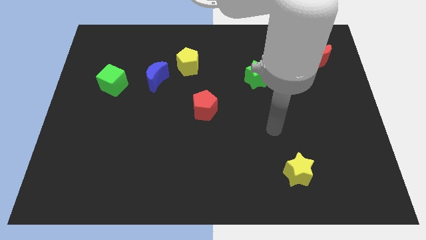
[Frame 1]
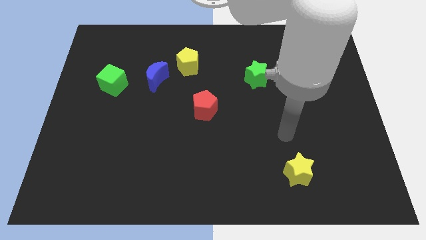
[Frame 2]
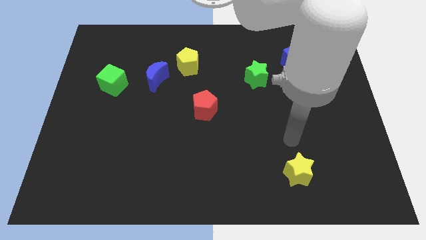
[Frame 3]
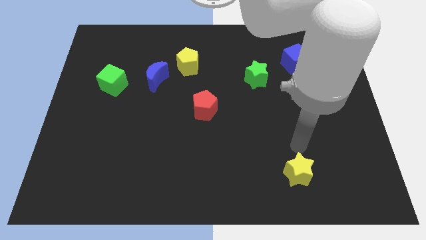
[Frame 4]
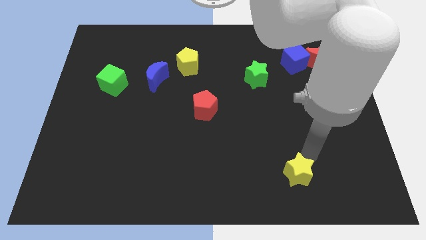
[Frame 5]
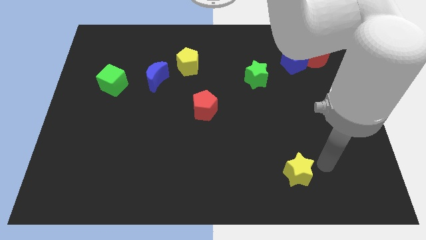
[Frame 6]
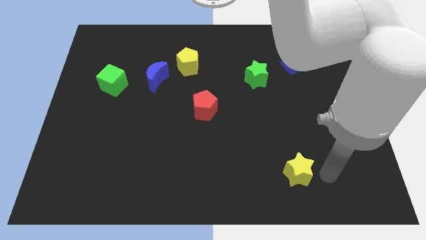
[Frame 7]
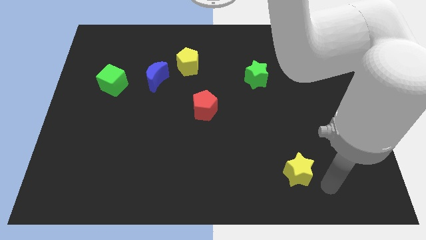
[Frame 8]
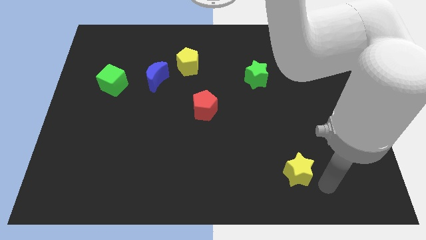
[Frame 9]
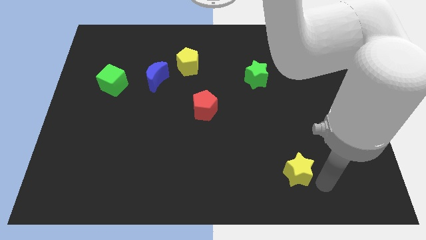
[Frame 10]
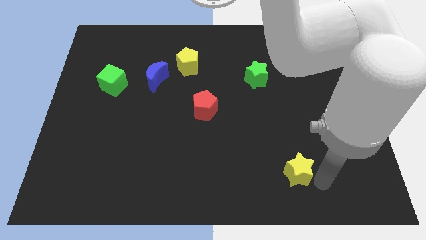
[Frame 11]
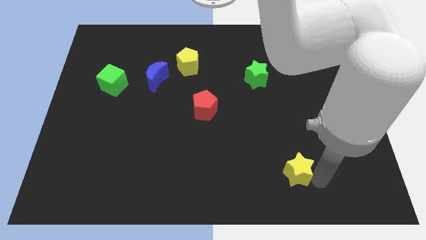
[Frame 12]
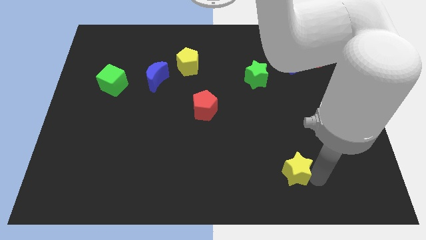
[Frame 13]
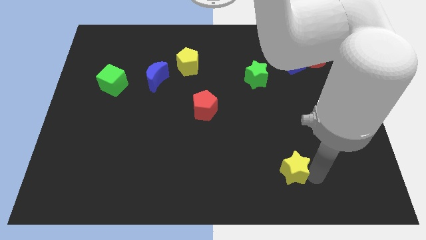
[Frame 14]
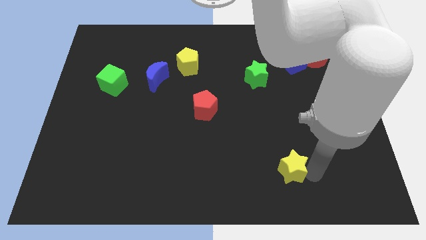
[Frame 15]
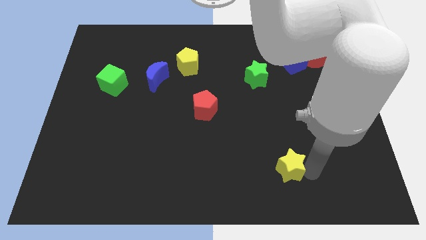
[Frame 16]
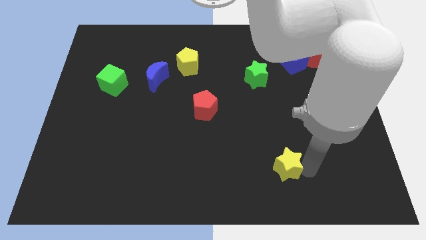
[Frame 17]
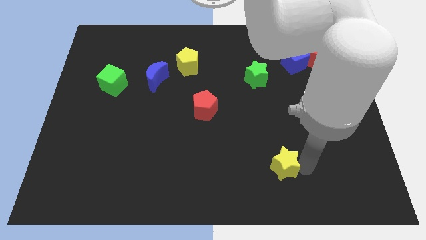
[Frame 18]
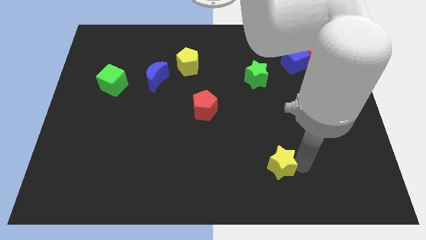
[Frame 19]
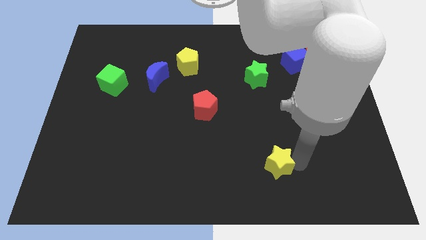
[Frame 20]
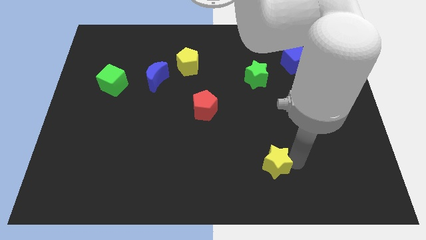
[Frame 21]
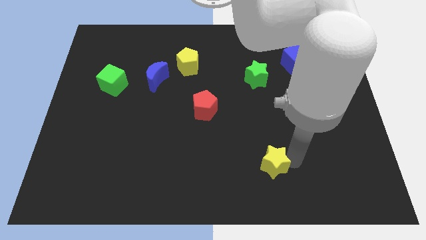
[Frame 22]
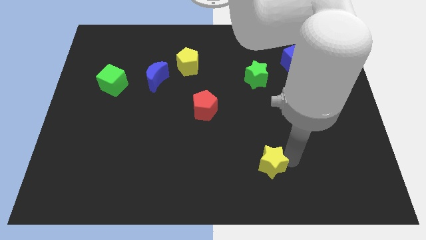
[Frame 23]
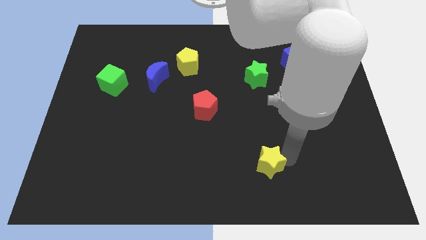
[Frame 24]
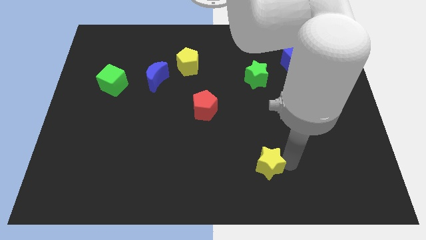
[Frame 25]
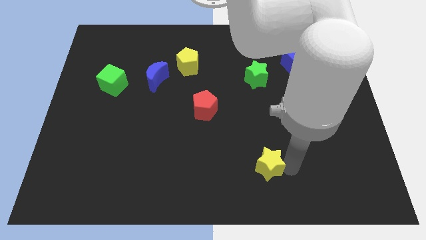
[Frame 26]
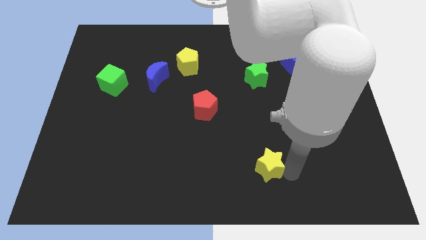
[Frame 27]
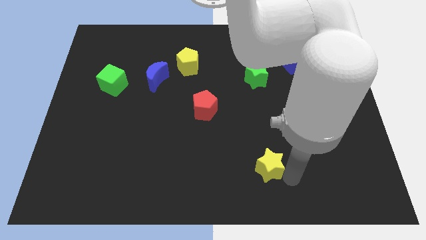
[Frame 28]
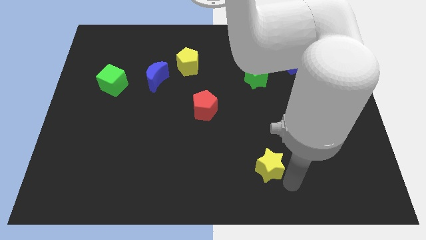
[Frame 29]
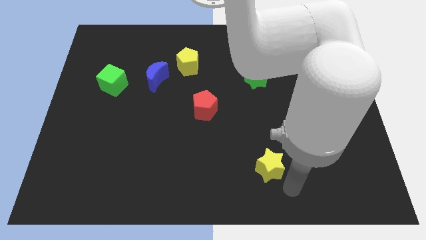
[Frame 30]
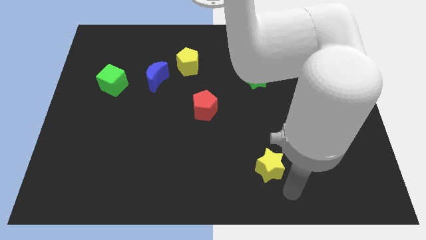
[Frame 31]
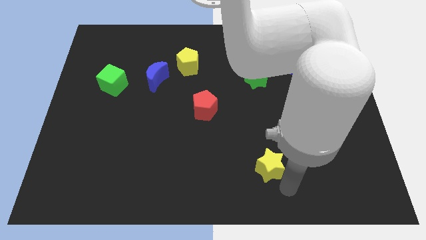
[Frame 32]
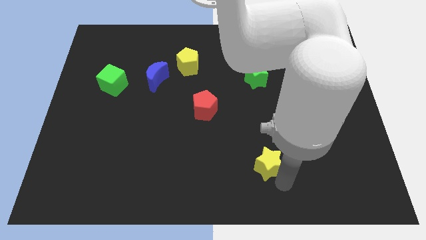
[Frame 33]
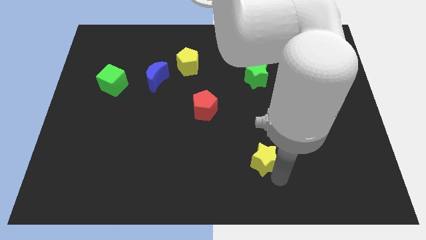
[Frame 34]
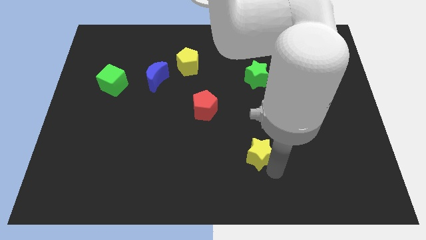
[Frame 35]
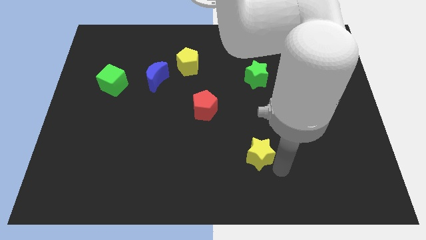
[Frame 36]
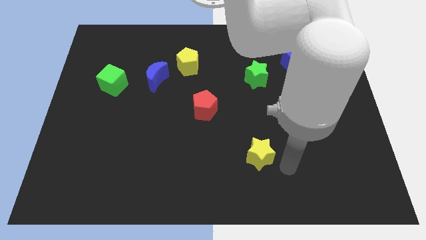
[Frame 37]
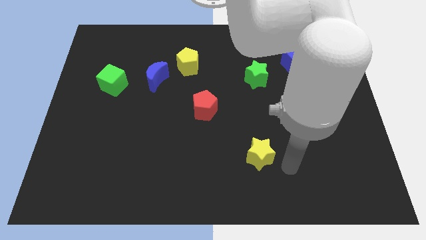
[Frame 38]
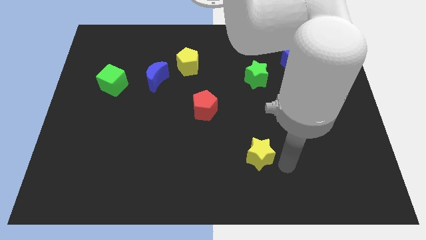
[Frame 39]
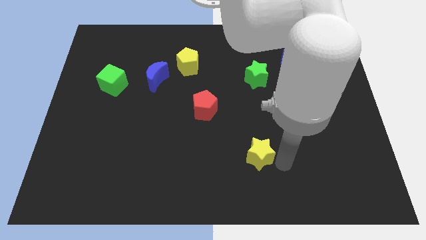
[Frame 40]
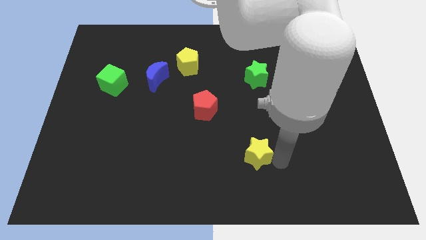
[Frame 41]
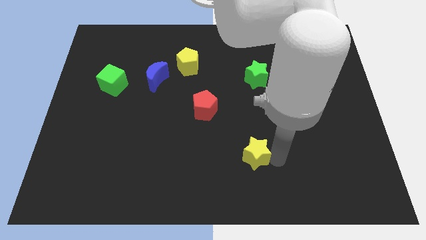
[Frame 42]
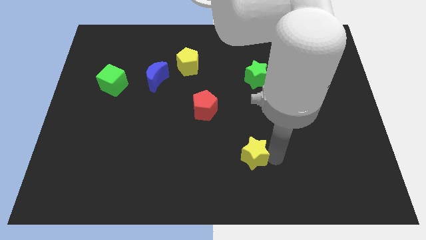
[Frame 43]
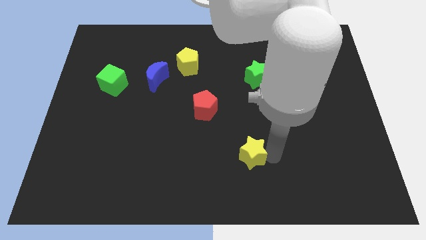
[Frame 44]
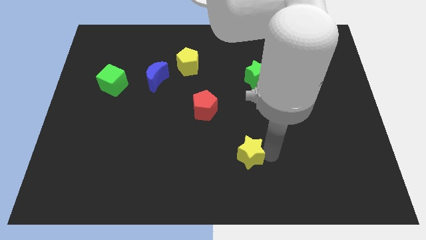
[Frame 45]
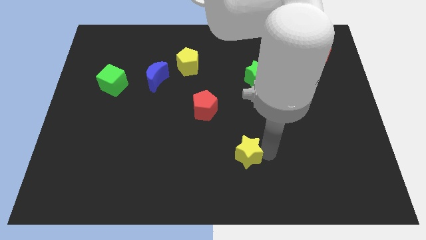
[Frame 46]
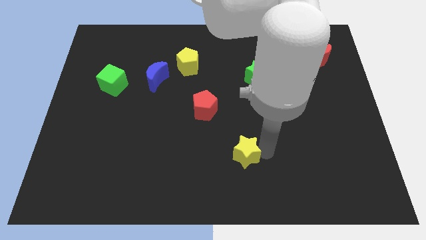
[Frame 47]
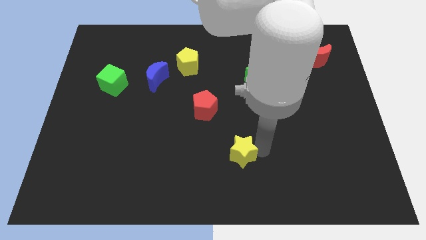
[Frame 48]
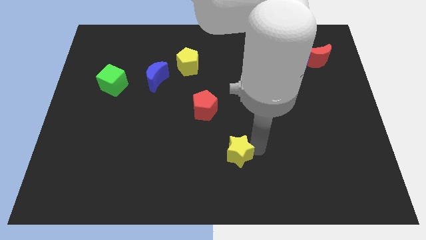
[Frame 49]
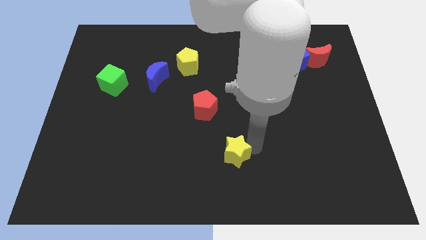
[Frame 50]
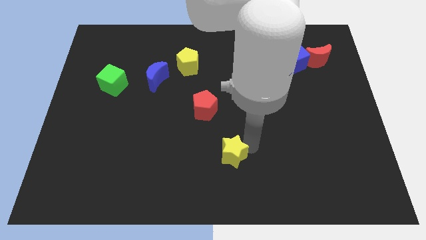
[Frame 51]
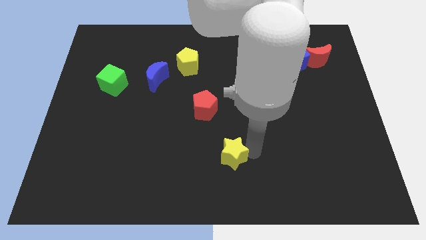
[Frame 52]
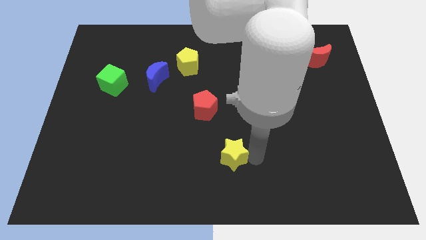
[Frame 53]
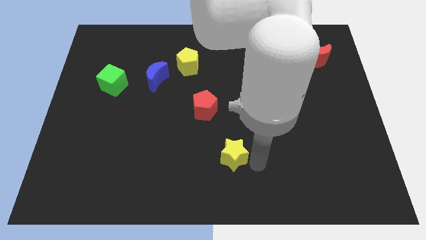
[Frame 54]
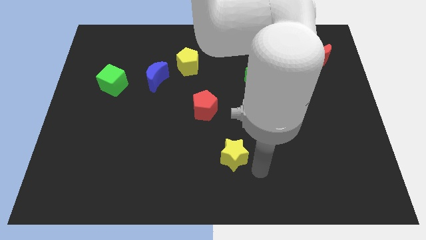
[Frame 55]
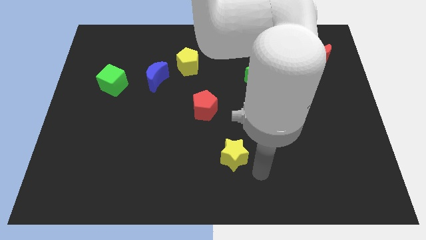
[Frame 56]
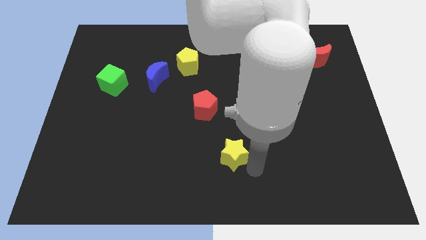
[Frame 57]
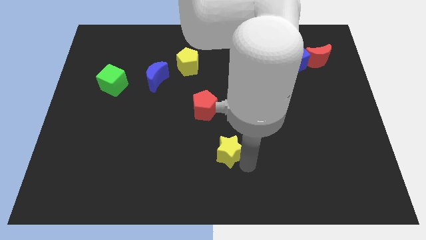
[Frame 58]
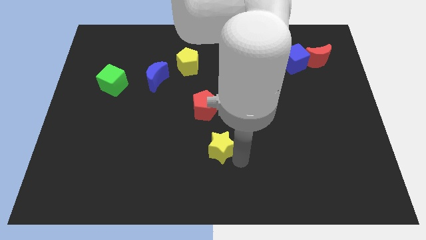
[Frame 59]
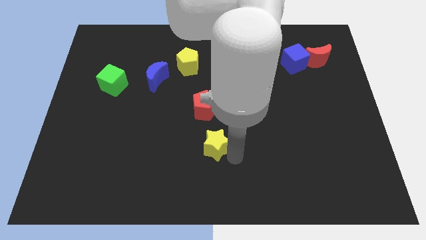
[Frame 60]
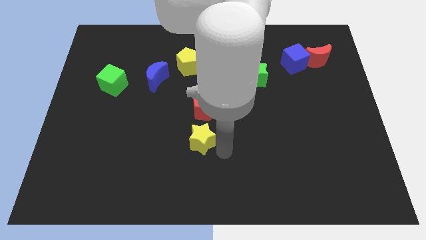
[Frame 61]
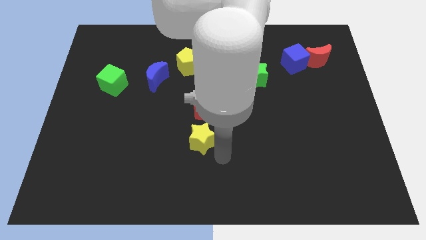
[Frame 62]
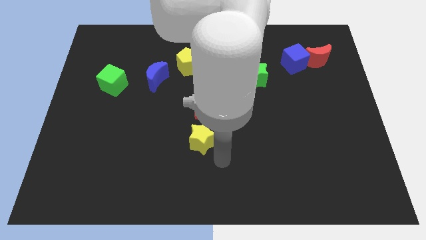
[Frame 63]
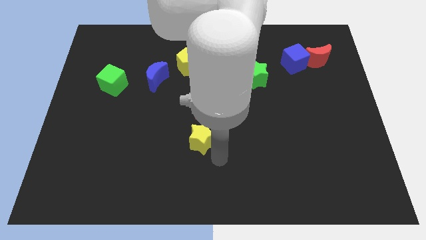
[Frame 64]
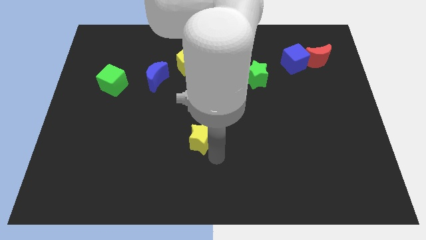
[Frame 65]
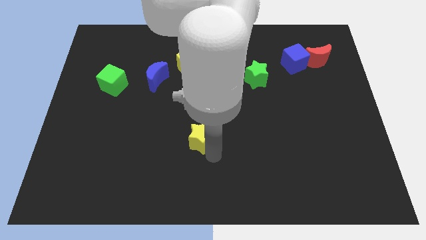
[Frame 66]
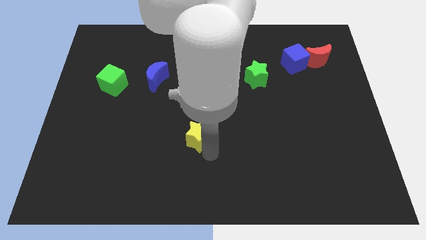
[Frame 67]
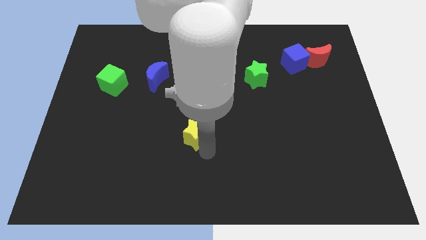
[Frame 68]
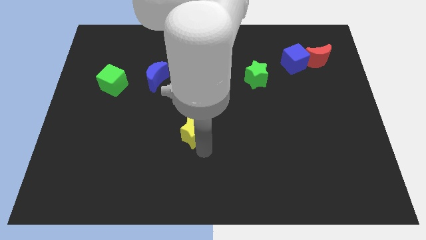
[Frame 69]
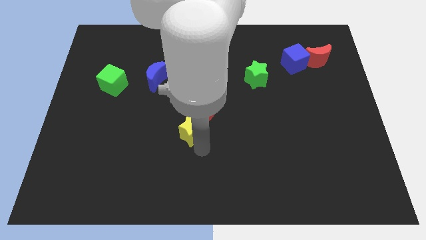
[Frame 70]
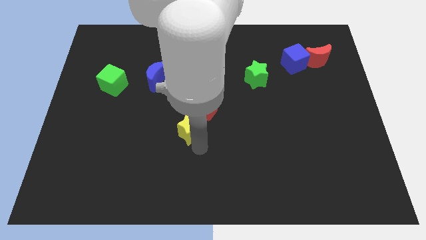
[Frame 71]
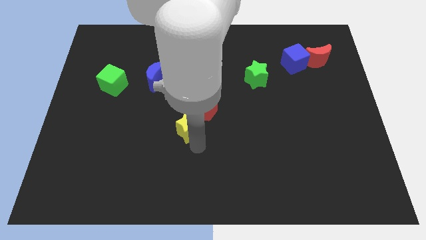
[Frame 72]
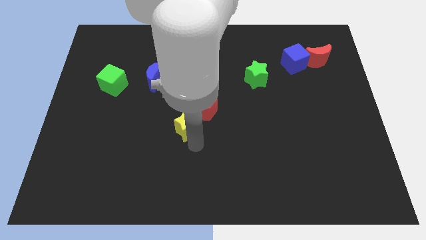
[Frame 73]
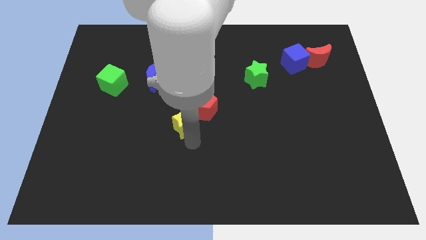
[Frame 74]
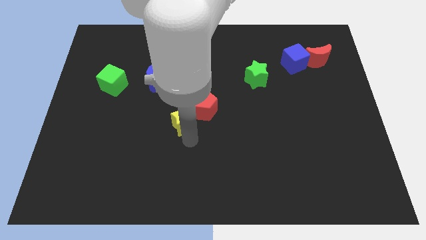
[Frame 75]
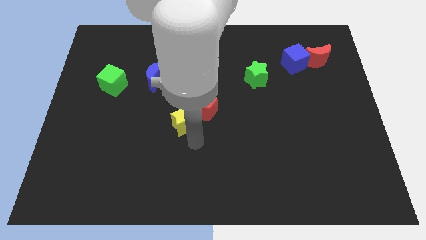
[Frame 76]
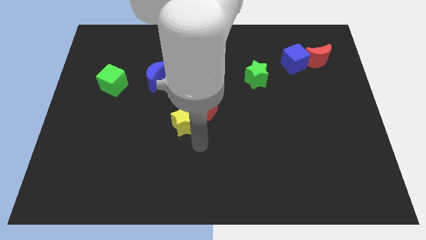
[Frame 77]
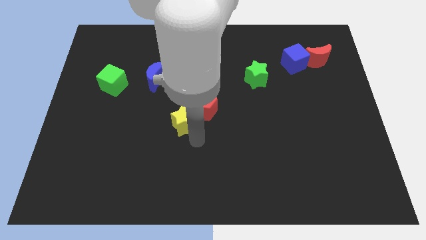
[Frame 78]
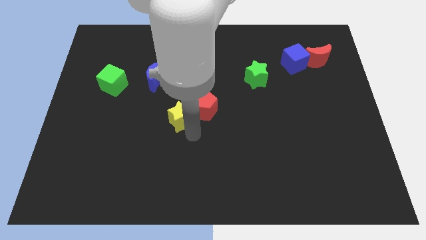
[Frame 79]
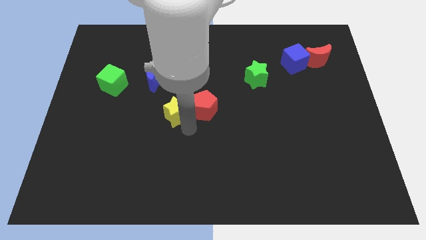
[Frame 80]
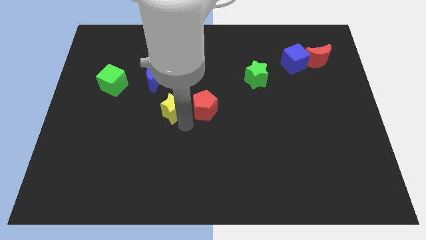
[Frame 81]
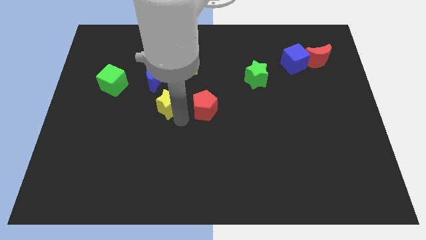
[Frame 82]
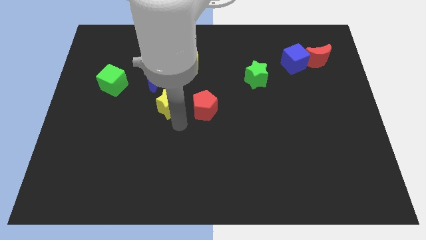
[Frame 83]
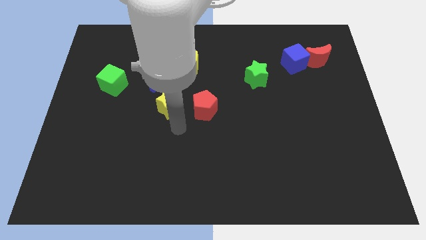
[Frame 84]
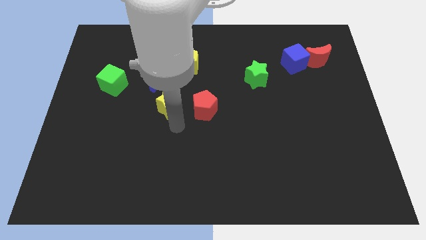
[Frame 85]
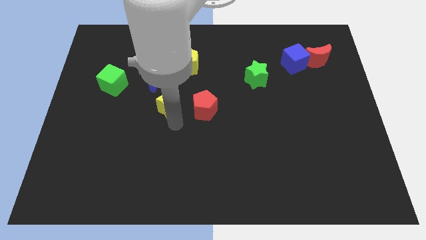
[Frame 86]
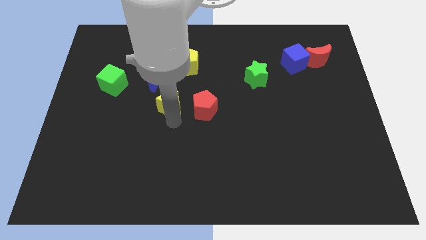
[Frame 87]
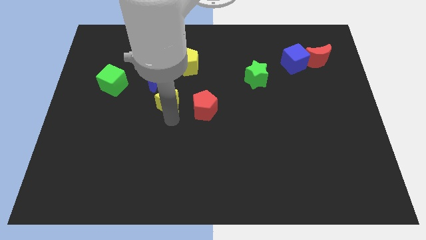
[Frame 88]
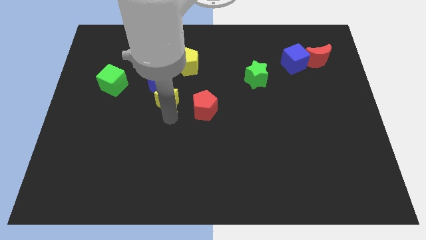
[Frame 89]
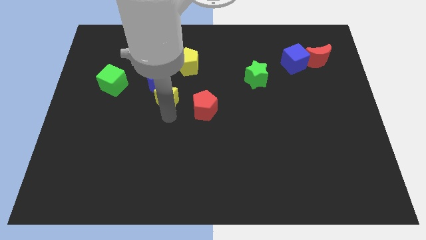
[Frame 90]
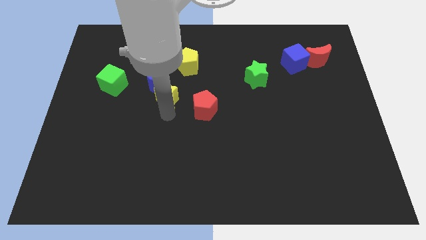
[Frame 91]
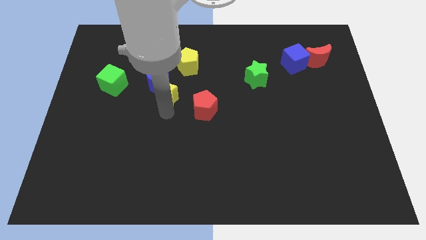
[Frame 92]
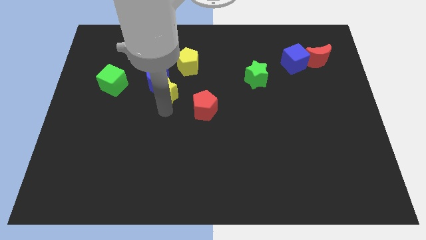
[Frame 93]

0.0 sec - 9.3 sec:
push the yellow star towards the blue moon
